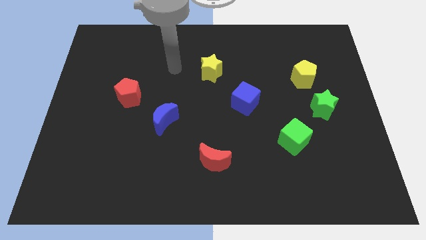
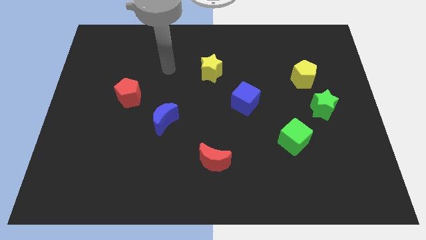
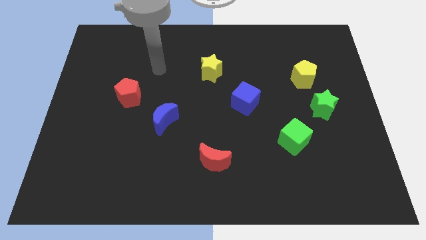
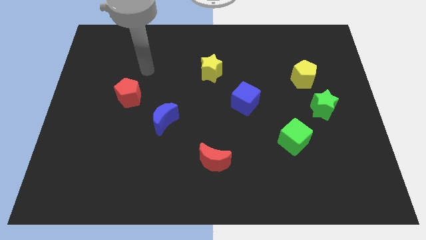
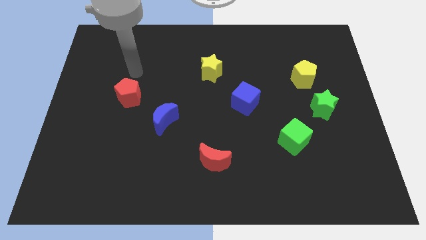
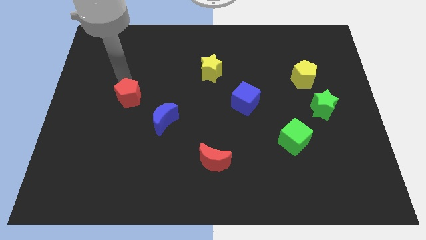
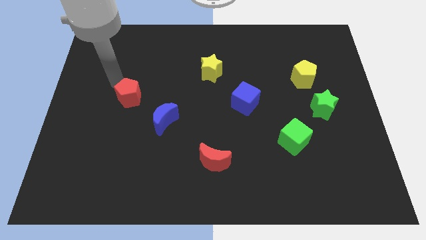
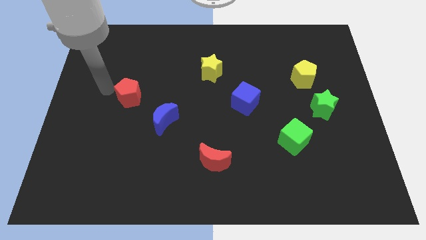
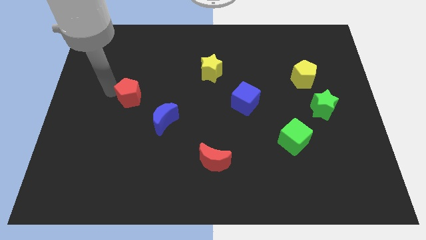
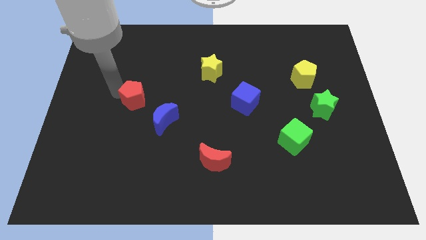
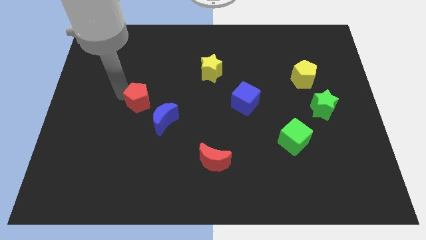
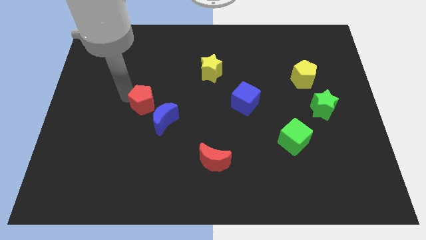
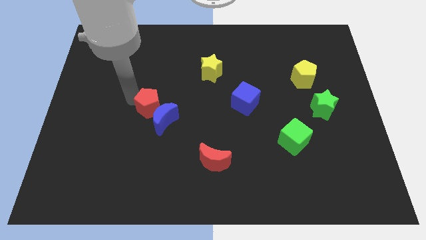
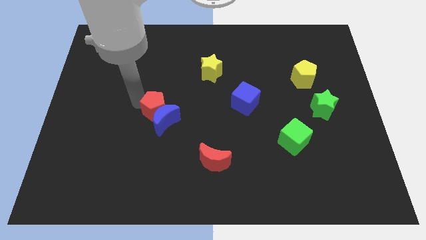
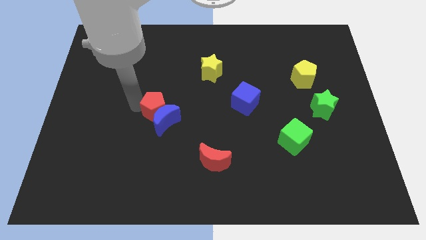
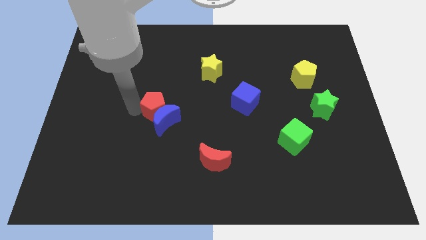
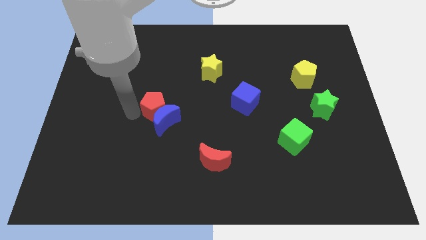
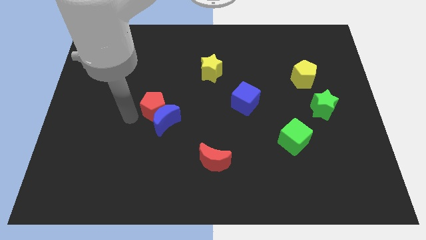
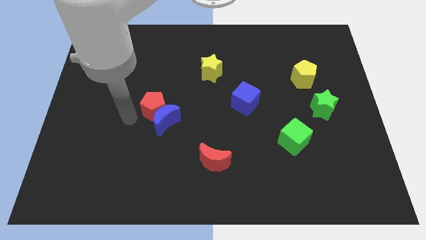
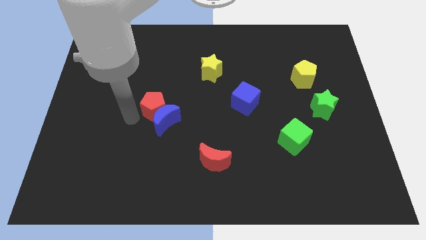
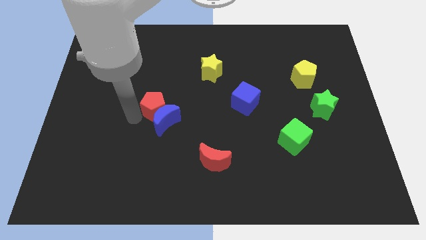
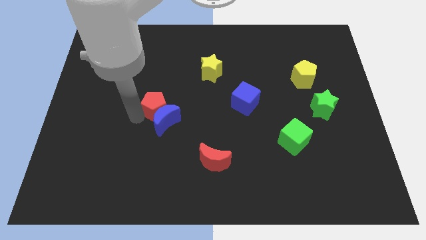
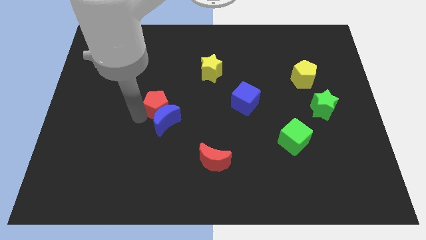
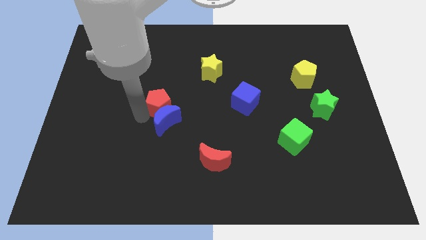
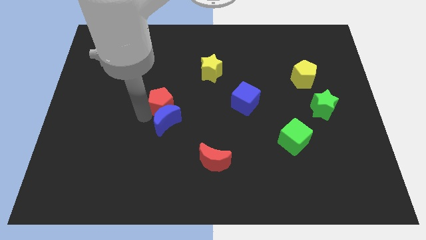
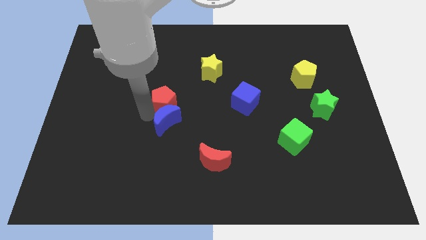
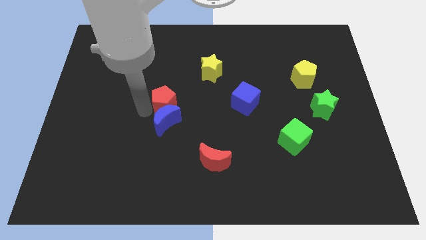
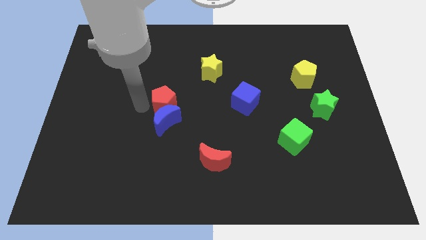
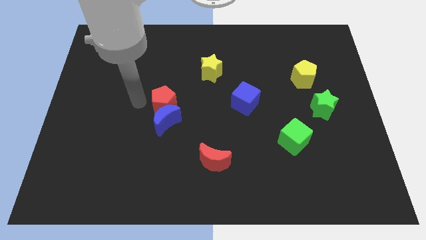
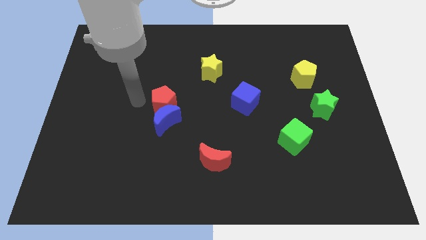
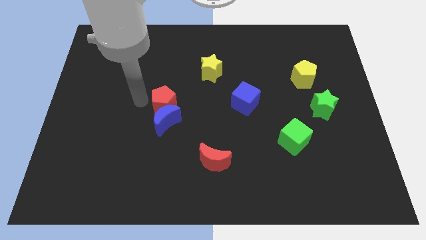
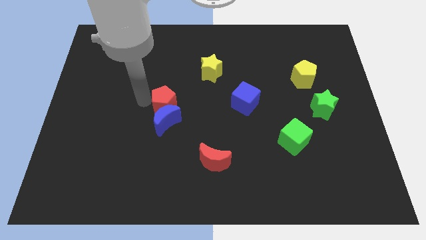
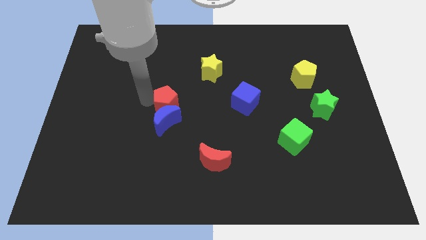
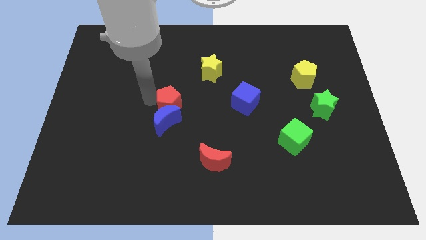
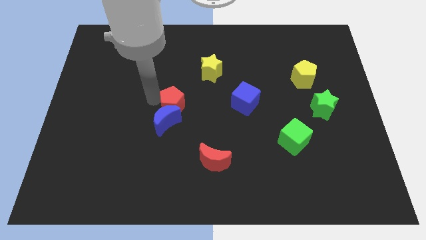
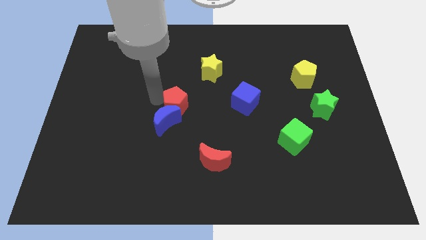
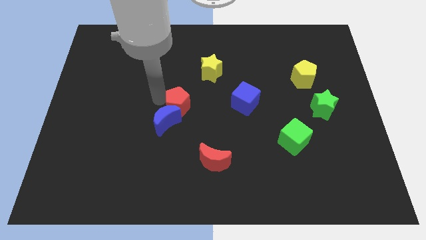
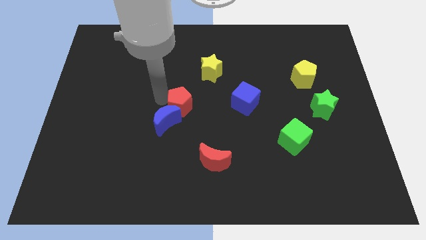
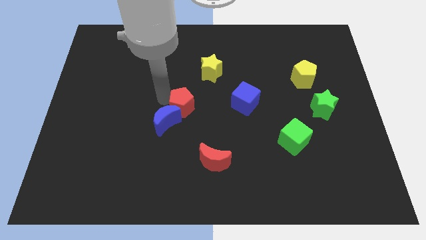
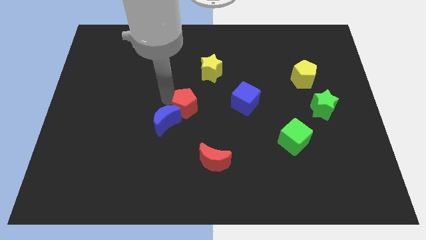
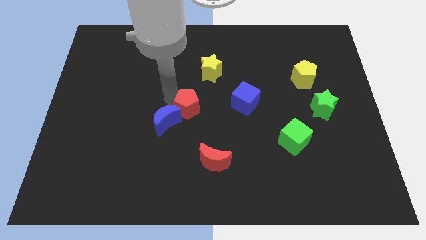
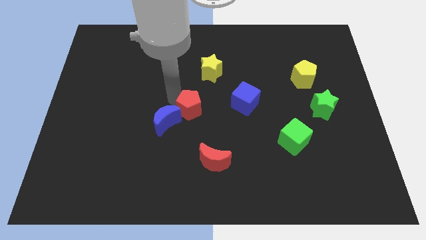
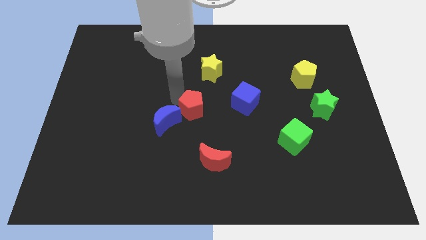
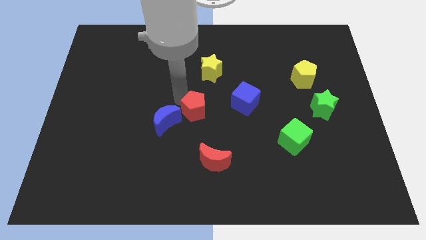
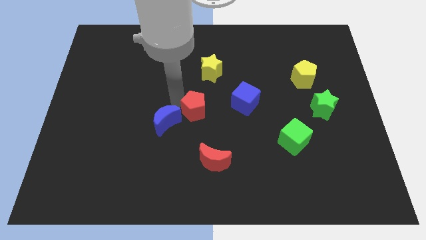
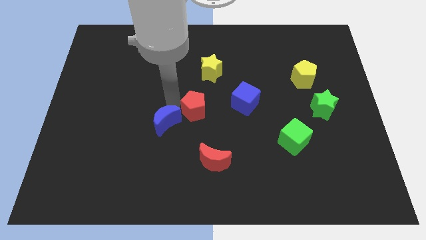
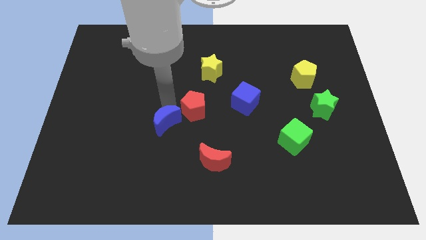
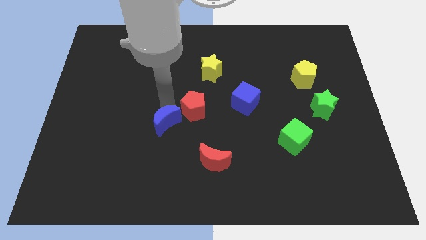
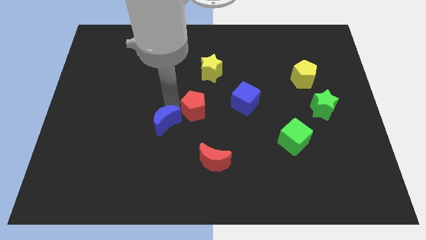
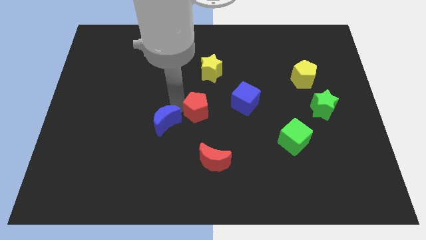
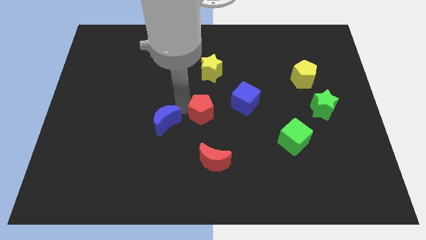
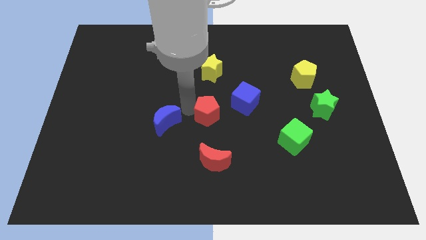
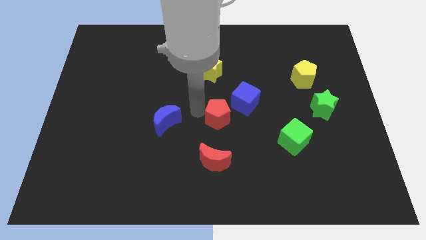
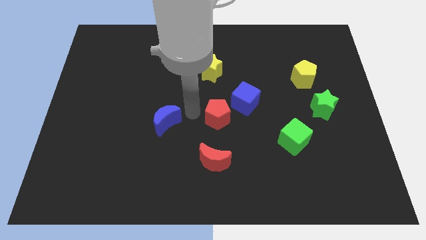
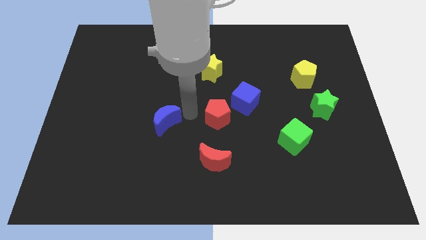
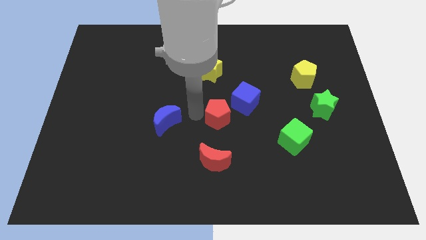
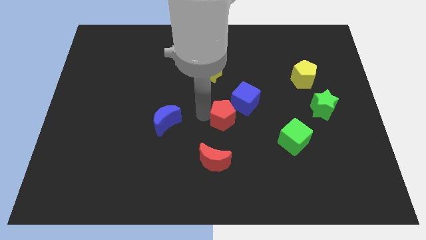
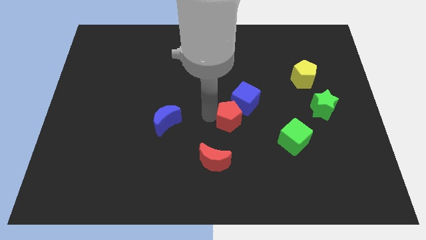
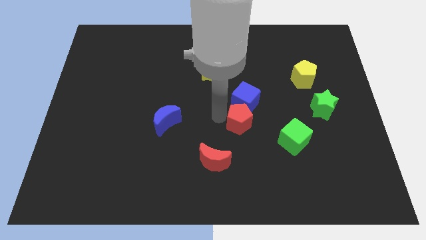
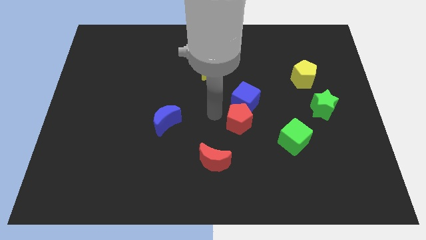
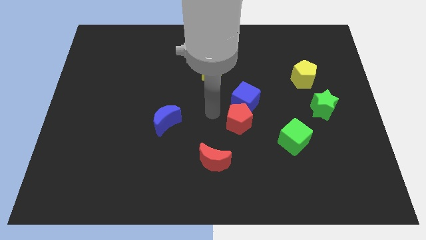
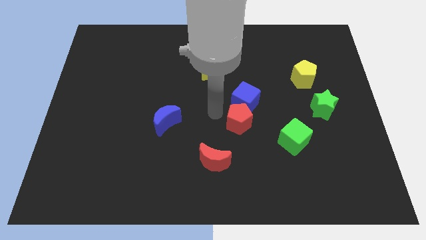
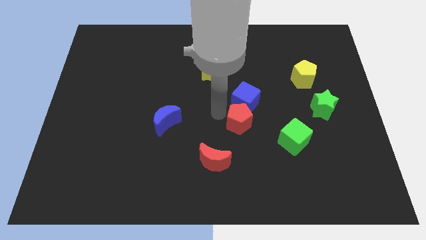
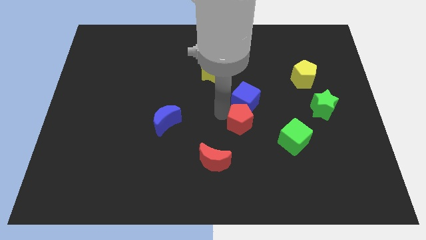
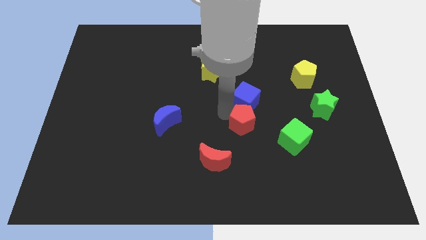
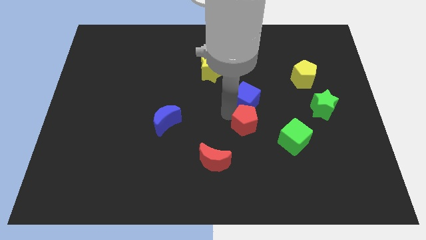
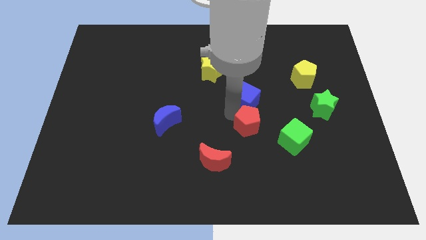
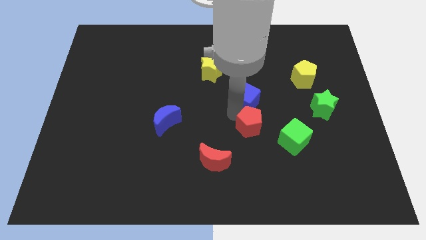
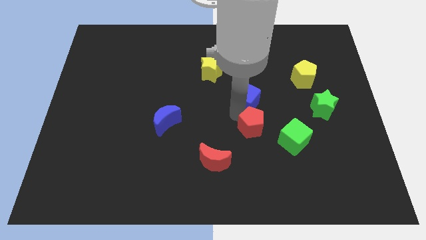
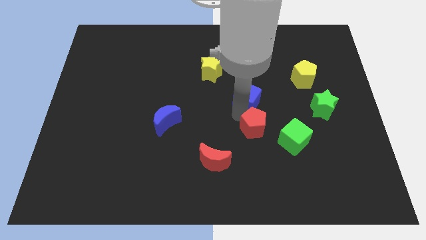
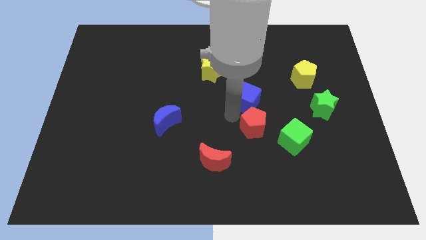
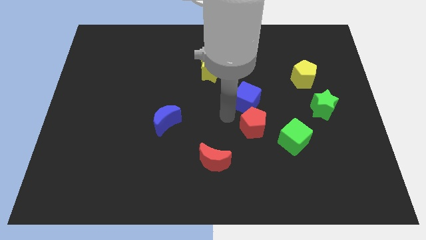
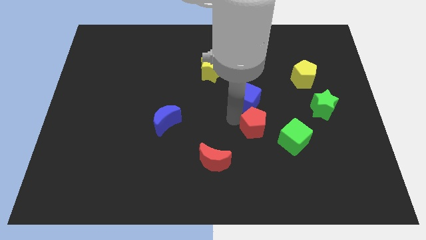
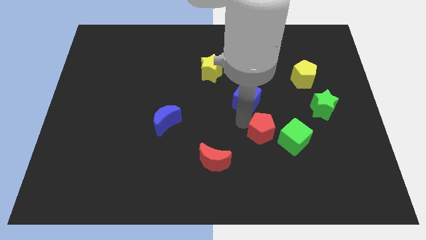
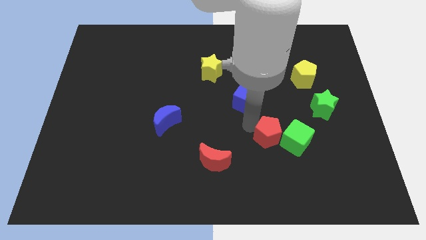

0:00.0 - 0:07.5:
slide the red pentagon next to the green cube
